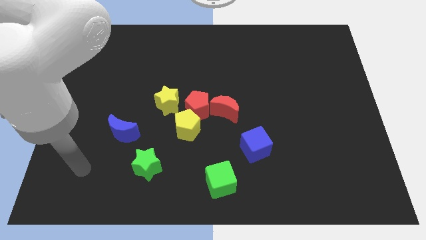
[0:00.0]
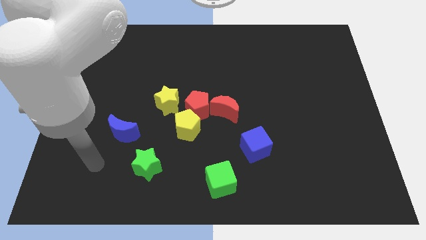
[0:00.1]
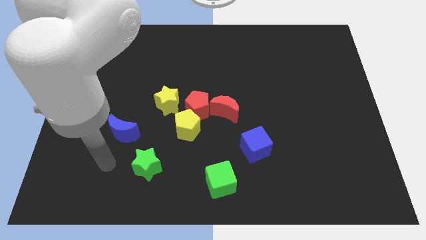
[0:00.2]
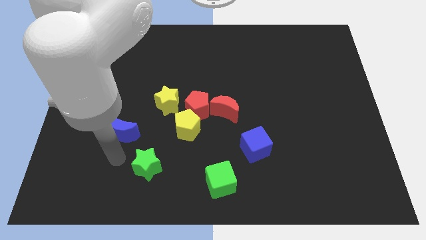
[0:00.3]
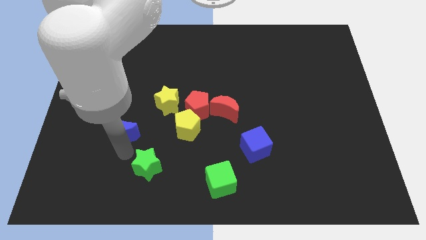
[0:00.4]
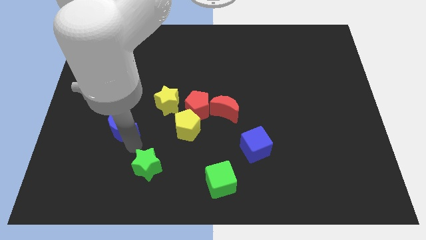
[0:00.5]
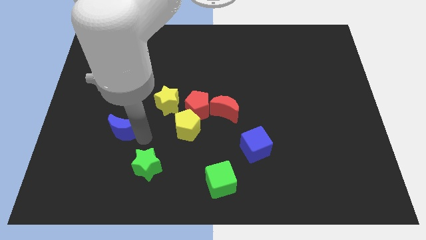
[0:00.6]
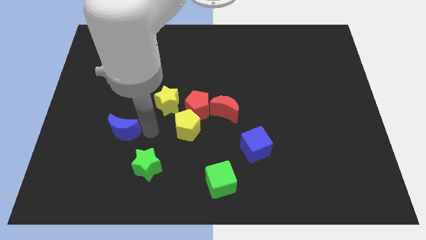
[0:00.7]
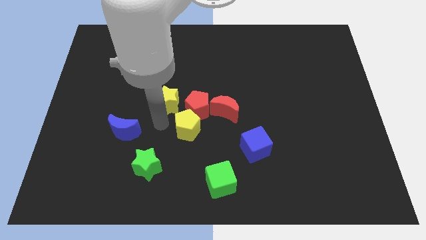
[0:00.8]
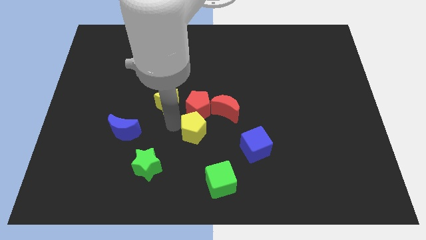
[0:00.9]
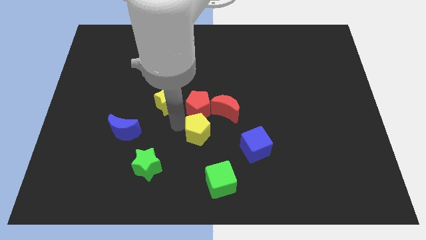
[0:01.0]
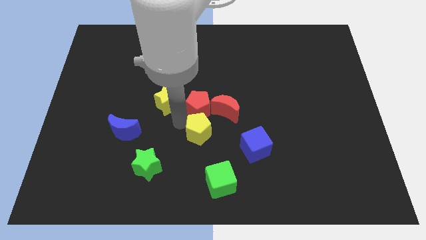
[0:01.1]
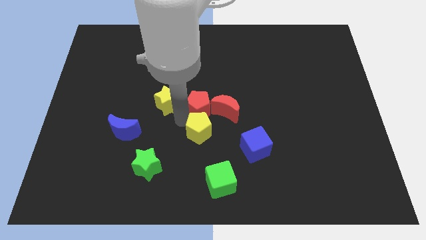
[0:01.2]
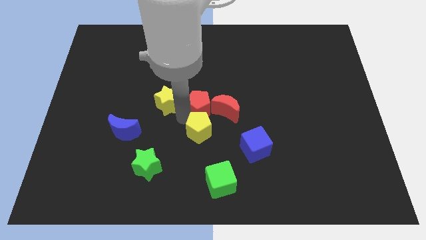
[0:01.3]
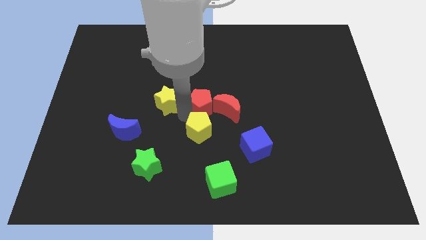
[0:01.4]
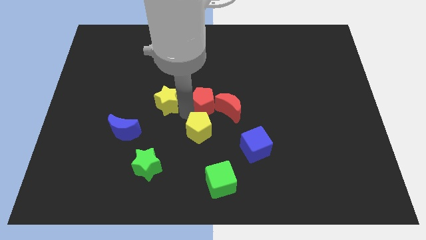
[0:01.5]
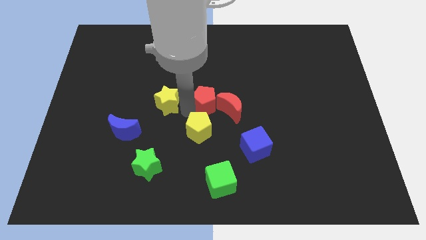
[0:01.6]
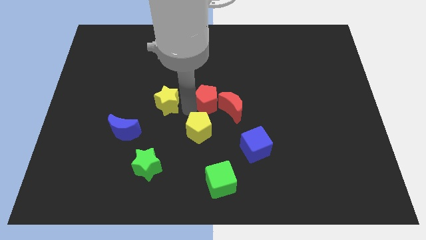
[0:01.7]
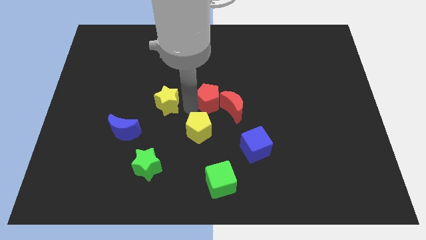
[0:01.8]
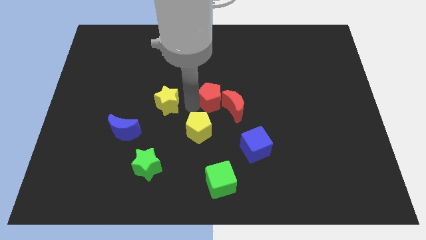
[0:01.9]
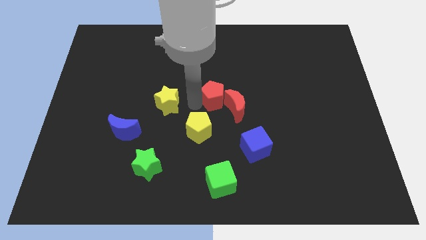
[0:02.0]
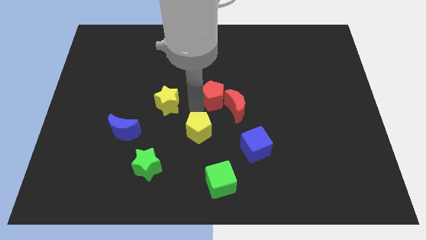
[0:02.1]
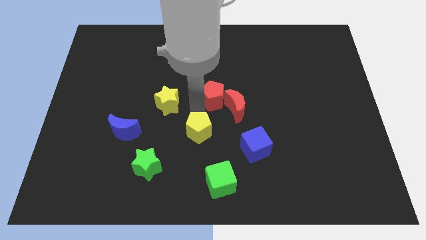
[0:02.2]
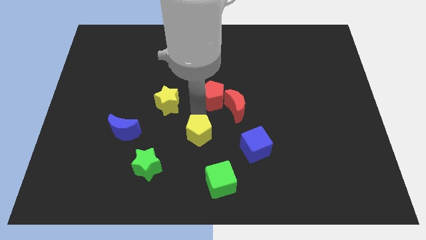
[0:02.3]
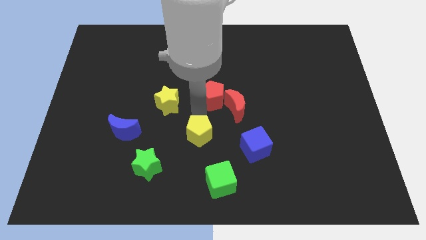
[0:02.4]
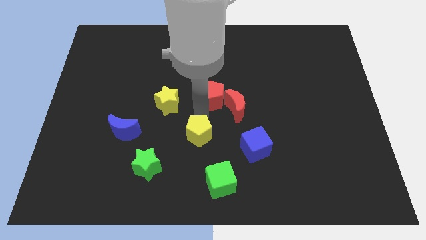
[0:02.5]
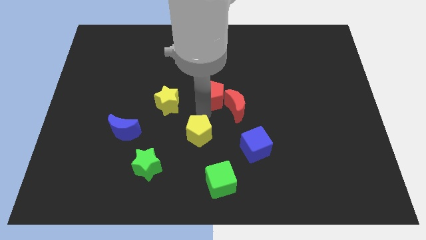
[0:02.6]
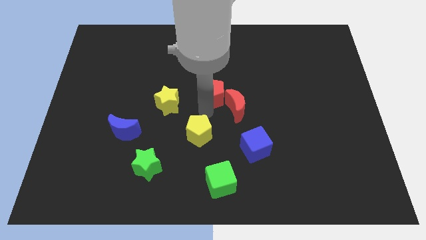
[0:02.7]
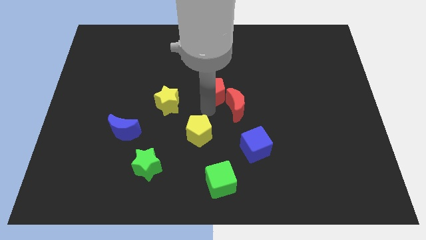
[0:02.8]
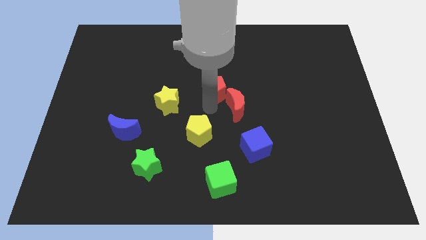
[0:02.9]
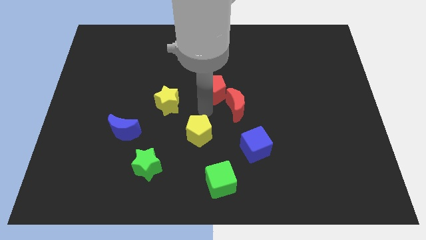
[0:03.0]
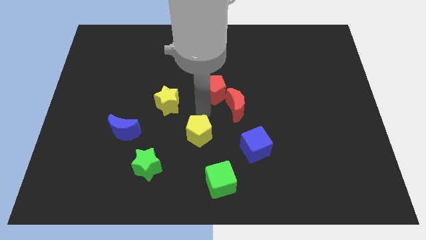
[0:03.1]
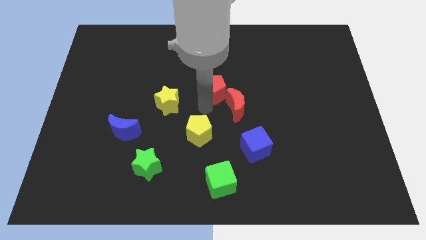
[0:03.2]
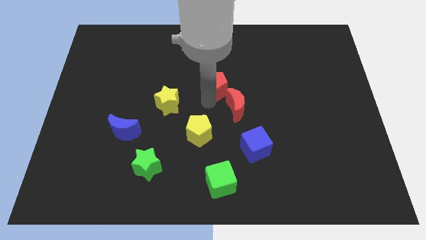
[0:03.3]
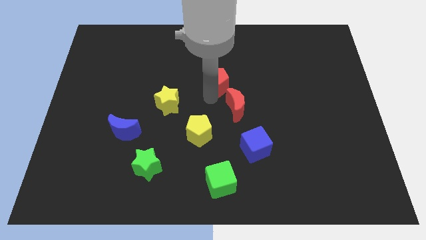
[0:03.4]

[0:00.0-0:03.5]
move the red pentagon away from the yellow pentagon, red moon, and yellow star

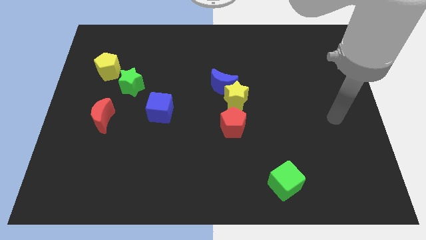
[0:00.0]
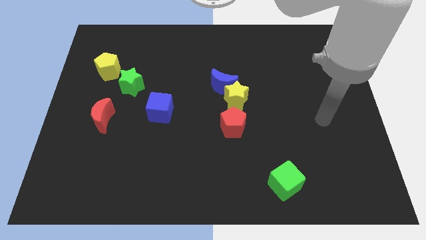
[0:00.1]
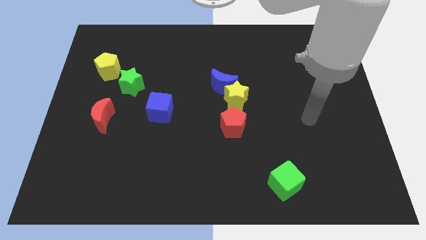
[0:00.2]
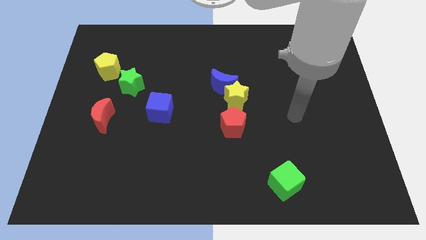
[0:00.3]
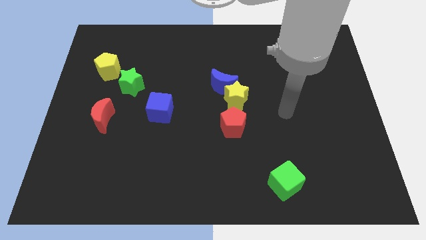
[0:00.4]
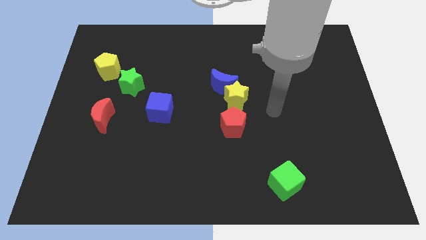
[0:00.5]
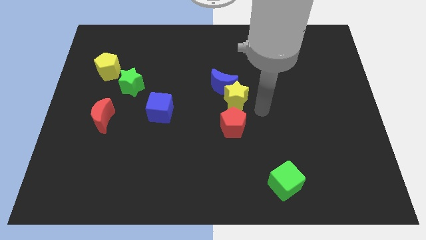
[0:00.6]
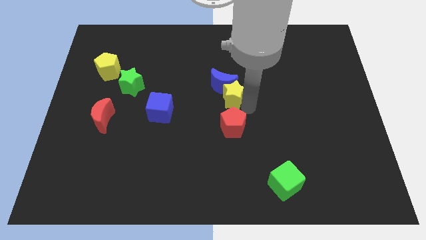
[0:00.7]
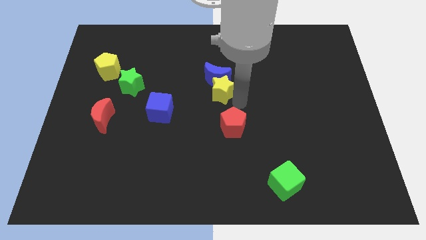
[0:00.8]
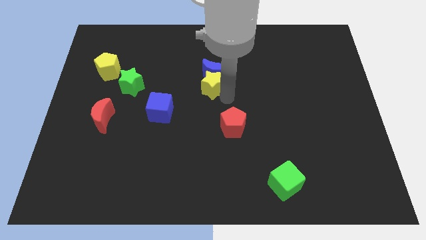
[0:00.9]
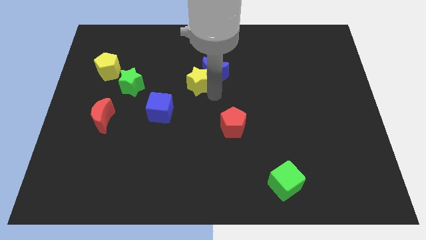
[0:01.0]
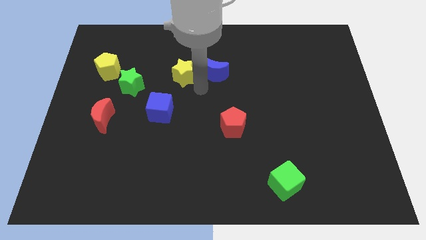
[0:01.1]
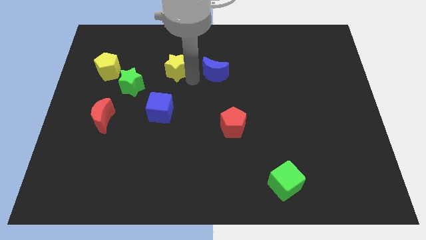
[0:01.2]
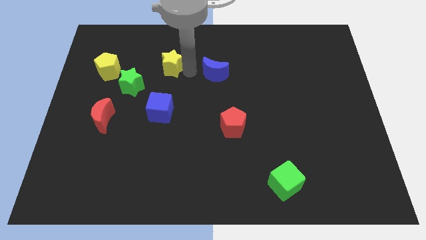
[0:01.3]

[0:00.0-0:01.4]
pull the blue moon apart from the yellow star

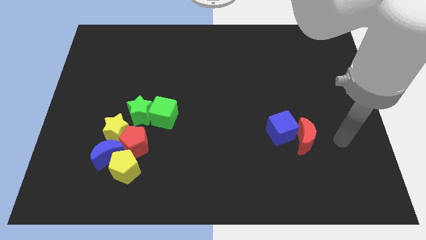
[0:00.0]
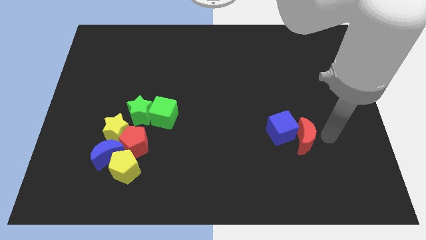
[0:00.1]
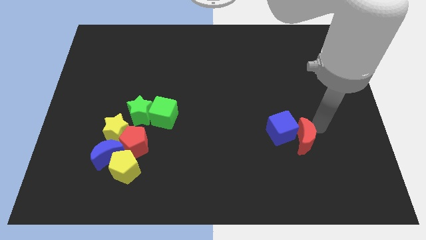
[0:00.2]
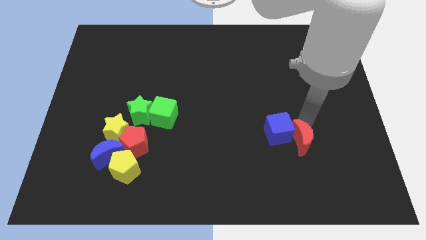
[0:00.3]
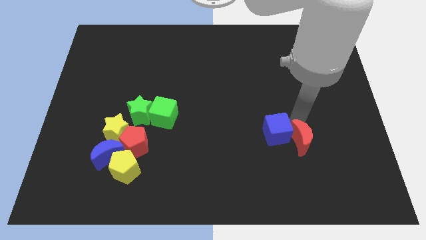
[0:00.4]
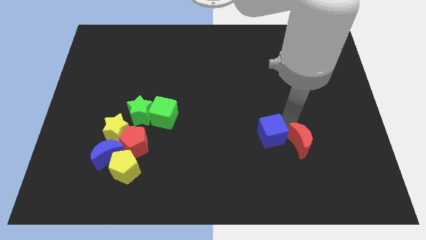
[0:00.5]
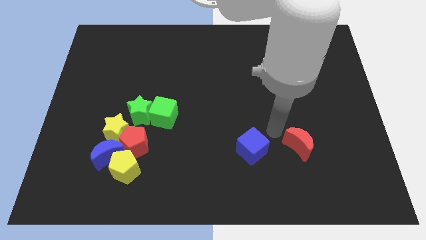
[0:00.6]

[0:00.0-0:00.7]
move the red moon away from the blue cube

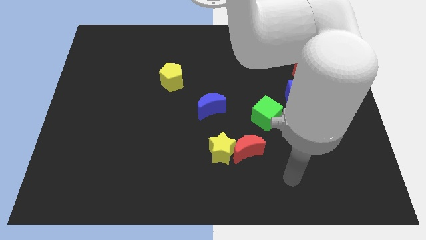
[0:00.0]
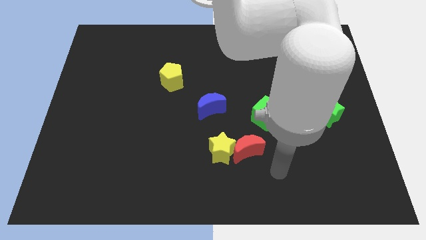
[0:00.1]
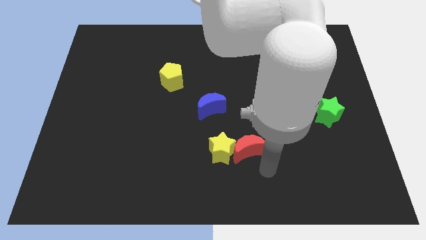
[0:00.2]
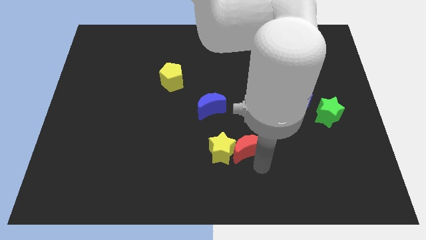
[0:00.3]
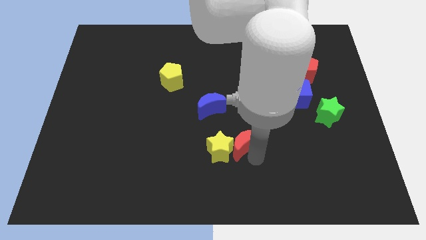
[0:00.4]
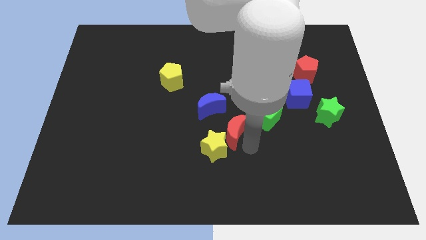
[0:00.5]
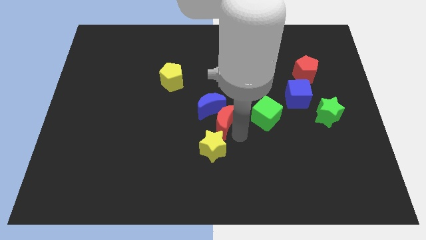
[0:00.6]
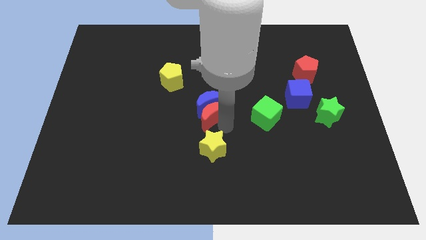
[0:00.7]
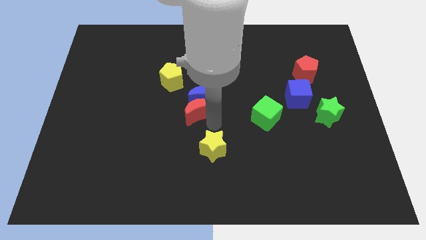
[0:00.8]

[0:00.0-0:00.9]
pull the yellow star apart from the red moon

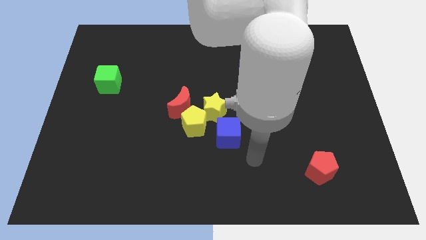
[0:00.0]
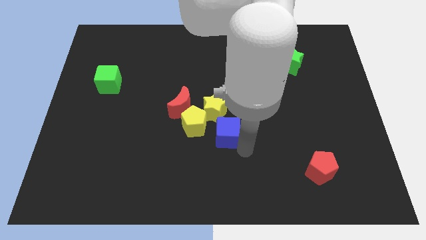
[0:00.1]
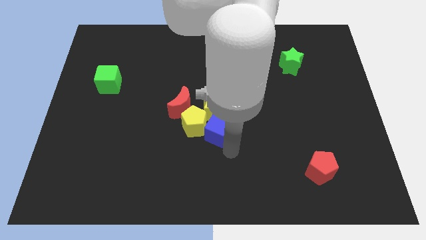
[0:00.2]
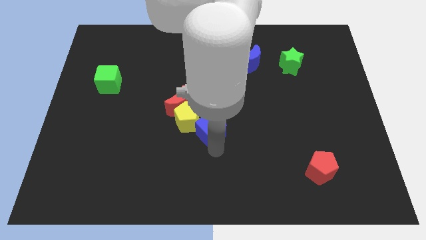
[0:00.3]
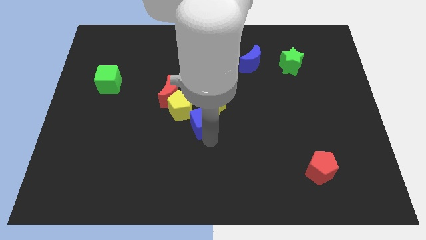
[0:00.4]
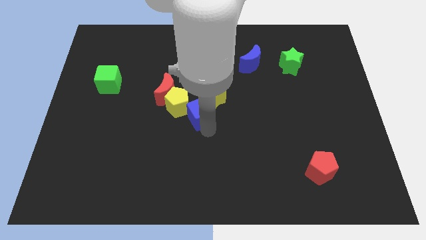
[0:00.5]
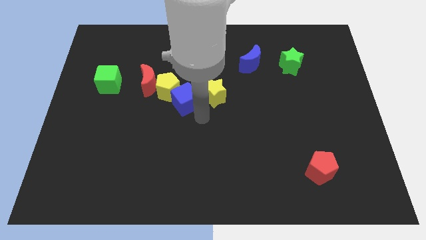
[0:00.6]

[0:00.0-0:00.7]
move the red moon away from the yellow pentagon and yellow star

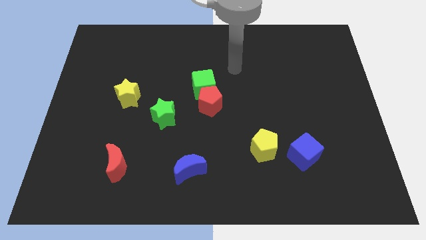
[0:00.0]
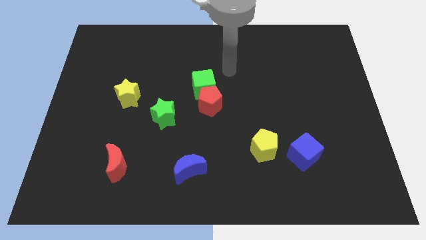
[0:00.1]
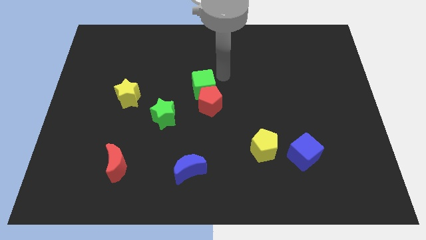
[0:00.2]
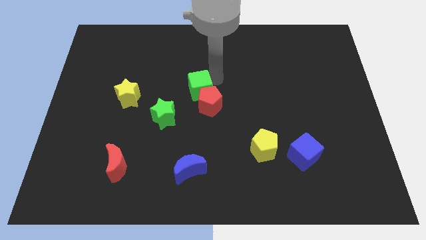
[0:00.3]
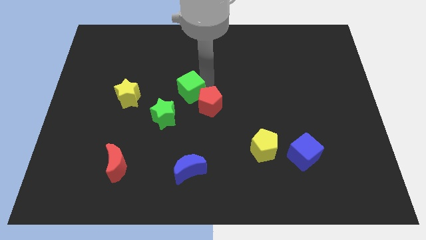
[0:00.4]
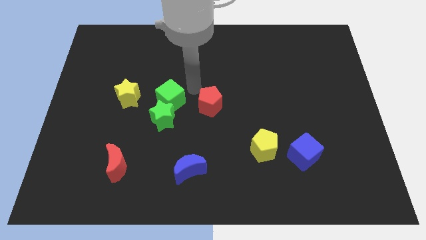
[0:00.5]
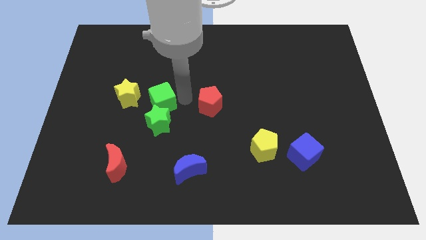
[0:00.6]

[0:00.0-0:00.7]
separate the red pentagon from the green cube

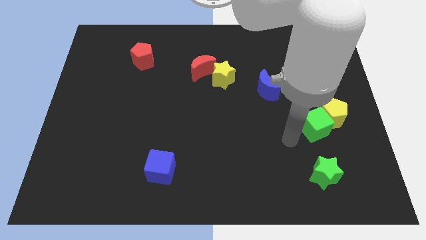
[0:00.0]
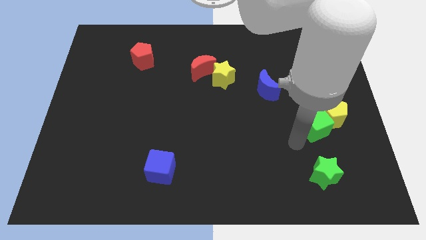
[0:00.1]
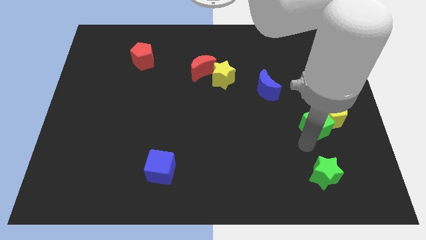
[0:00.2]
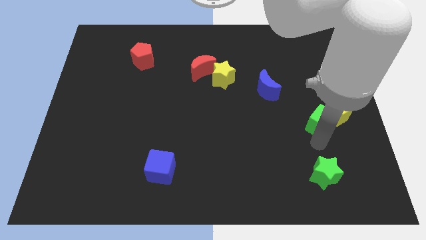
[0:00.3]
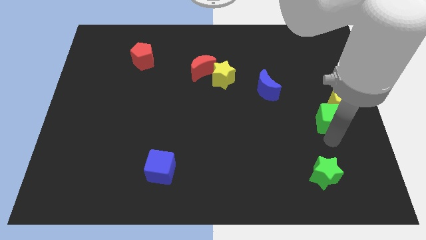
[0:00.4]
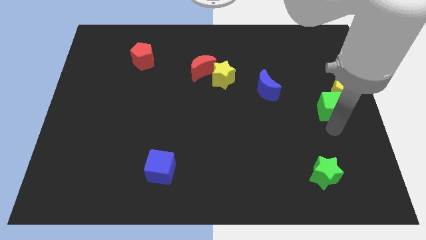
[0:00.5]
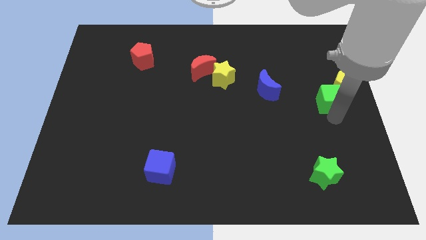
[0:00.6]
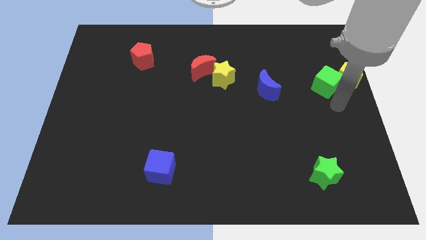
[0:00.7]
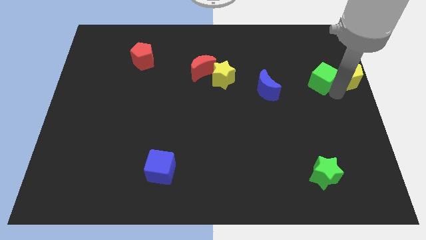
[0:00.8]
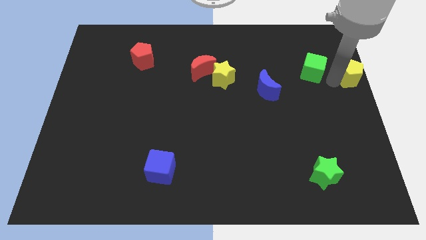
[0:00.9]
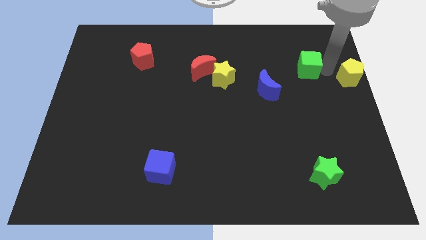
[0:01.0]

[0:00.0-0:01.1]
move the green cube away from the yellow pentagon

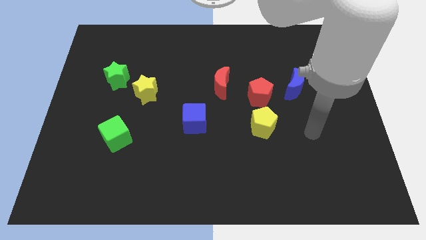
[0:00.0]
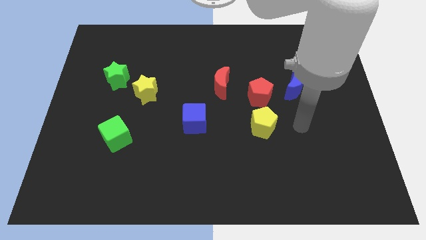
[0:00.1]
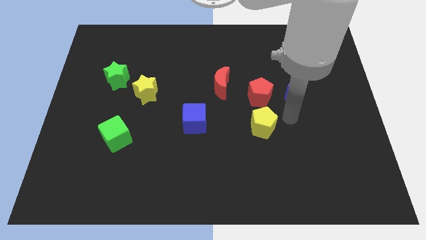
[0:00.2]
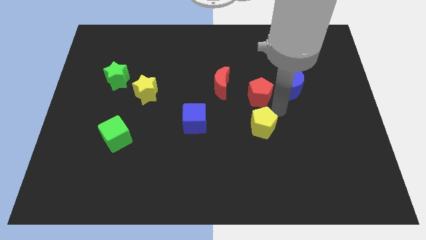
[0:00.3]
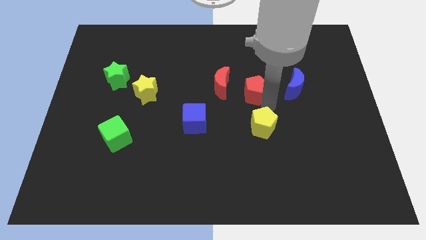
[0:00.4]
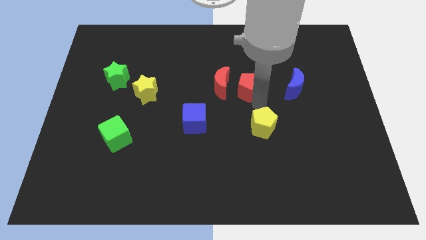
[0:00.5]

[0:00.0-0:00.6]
separate the yellow pentagon from the red pentagon
